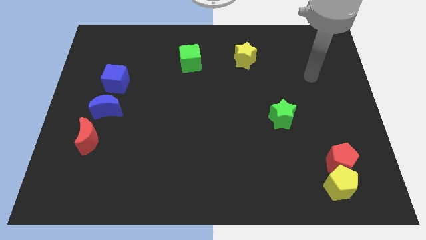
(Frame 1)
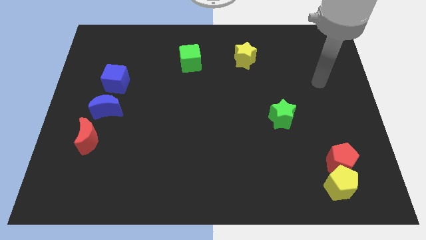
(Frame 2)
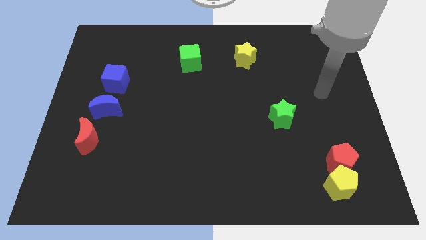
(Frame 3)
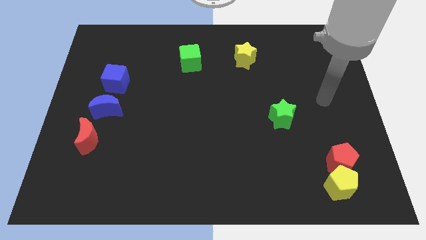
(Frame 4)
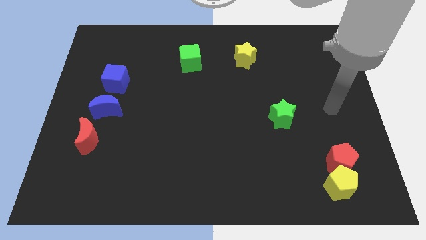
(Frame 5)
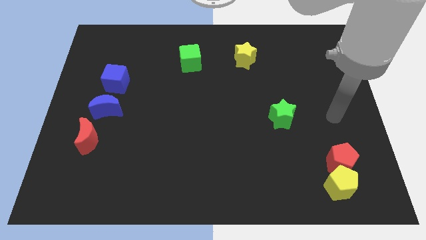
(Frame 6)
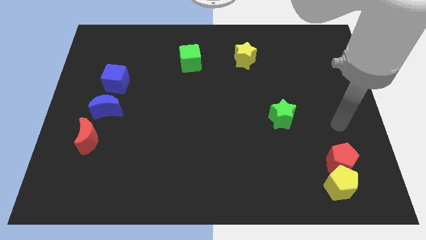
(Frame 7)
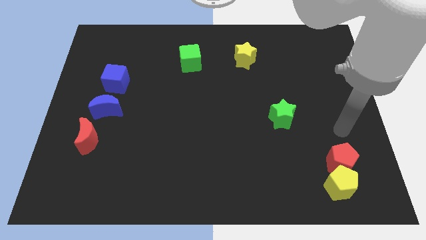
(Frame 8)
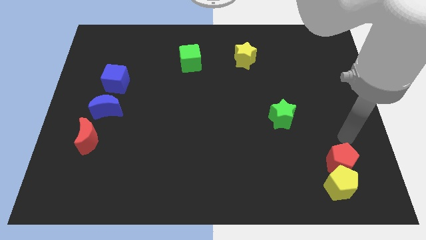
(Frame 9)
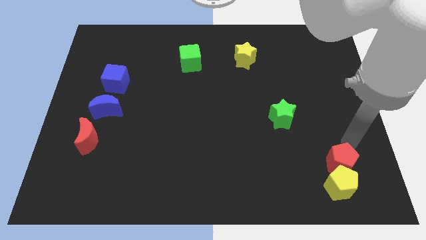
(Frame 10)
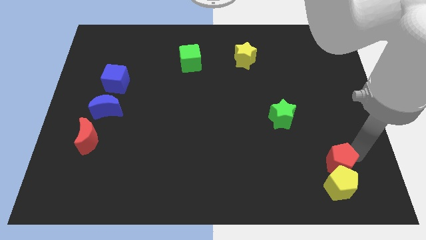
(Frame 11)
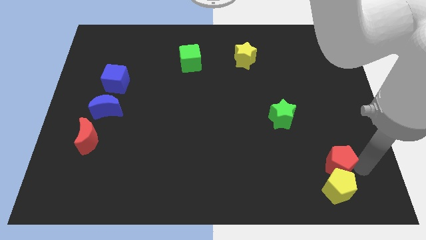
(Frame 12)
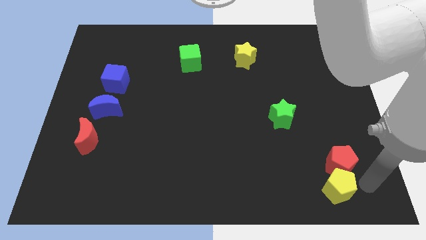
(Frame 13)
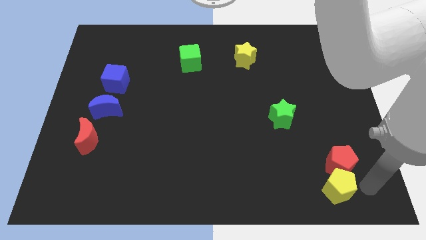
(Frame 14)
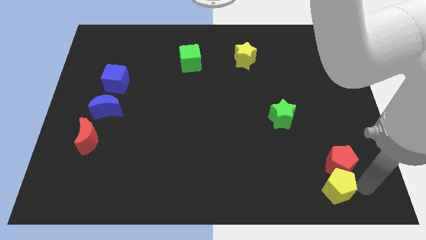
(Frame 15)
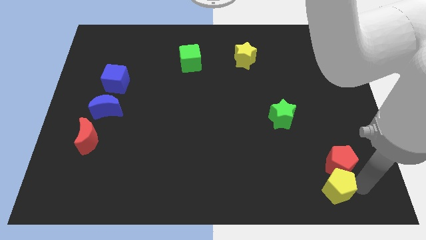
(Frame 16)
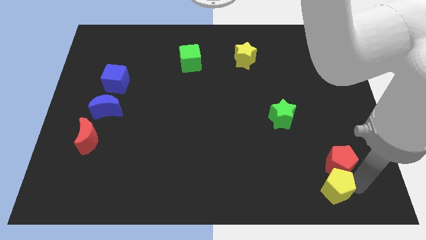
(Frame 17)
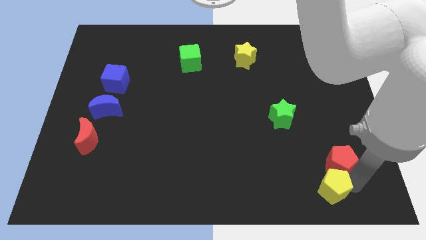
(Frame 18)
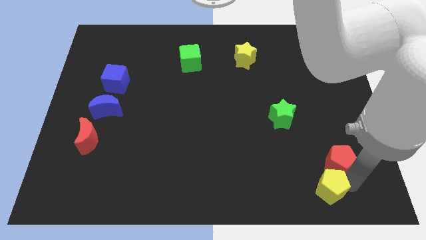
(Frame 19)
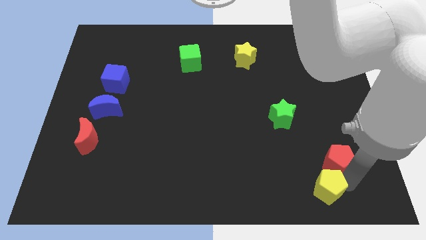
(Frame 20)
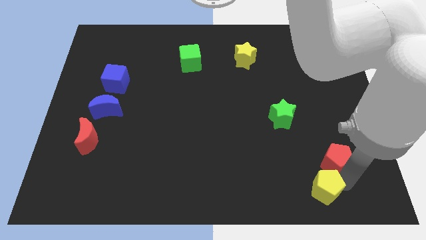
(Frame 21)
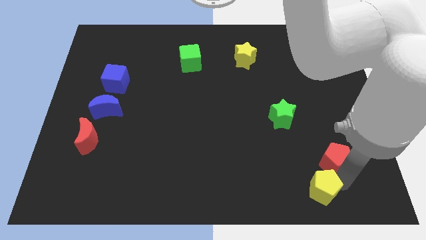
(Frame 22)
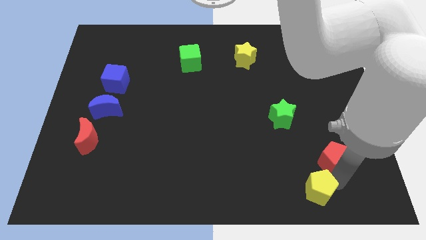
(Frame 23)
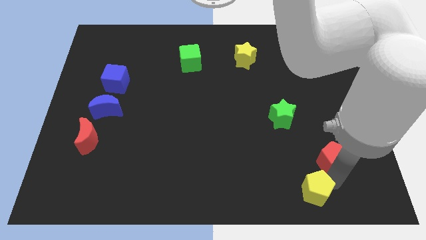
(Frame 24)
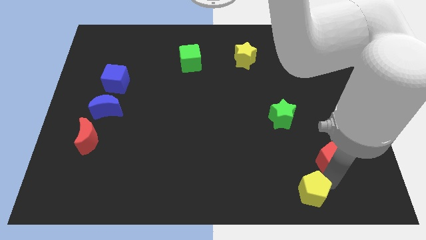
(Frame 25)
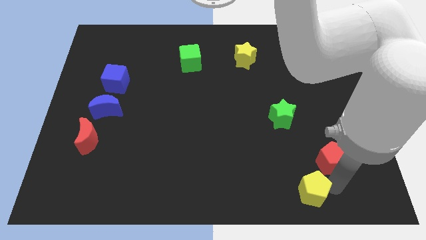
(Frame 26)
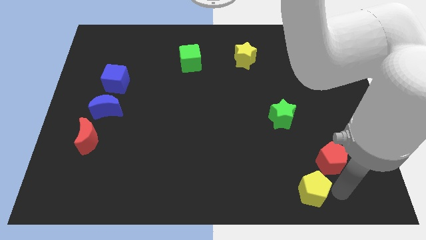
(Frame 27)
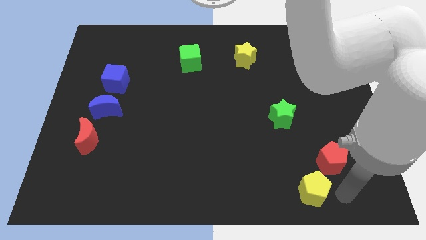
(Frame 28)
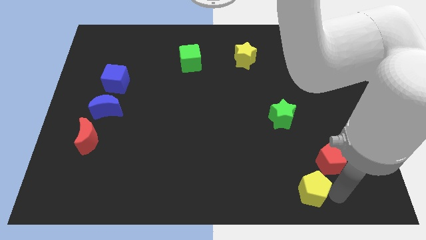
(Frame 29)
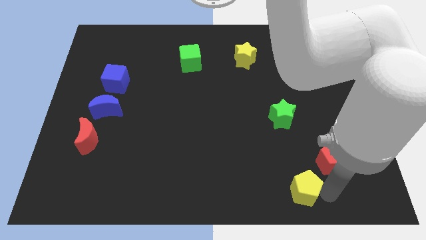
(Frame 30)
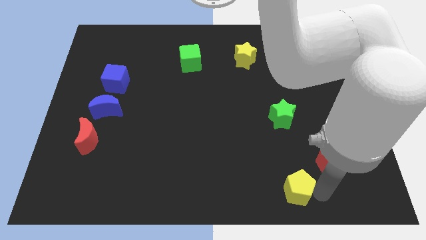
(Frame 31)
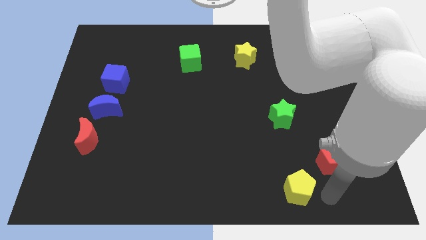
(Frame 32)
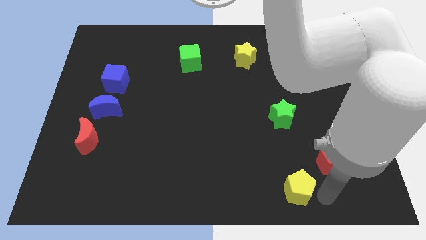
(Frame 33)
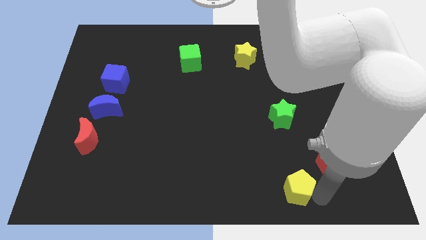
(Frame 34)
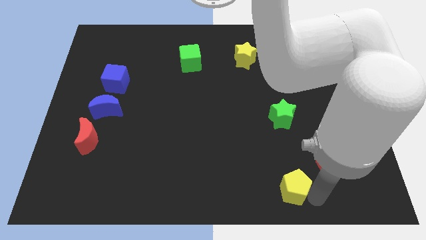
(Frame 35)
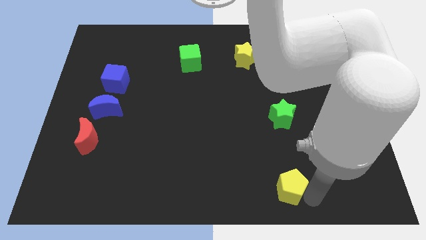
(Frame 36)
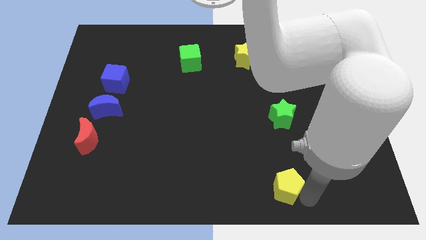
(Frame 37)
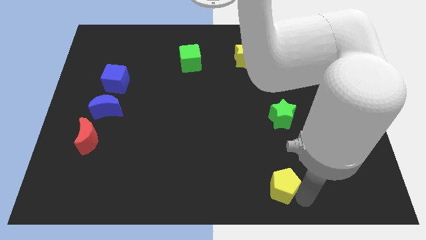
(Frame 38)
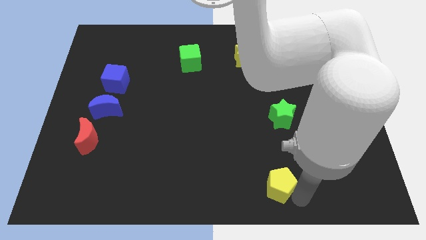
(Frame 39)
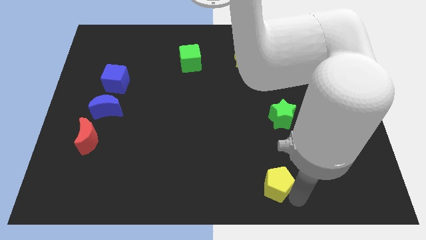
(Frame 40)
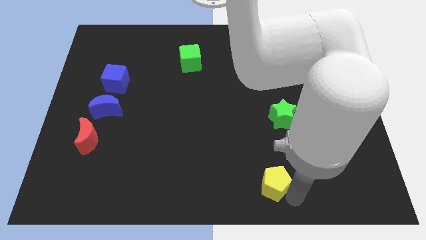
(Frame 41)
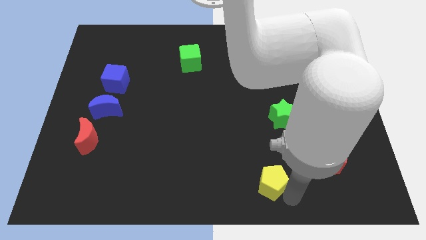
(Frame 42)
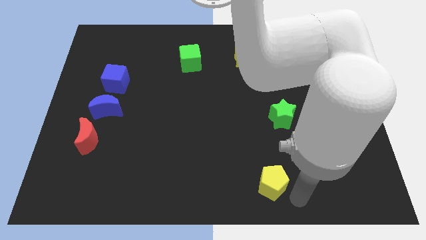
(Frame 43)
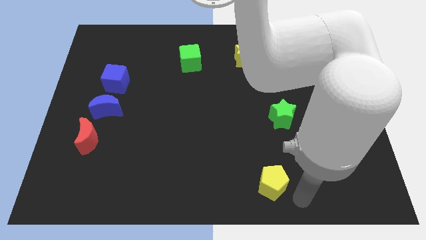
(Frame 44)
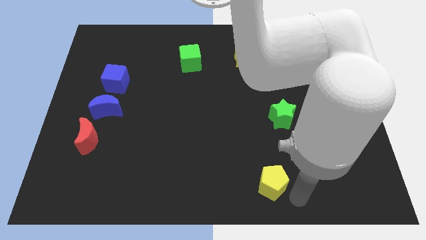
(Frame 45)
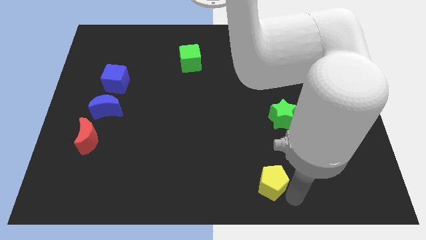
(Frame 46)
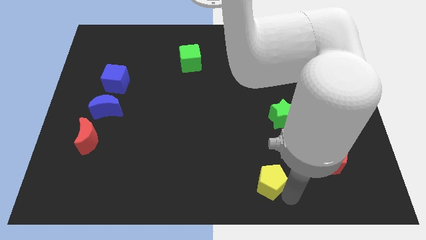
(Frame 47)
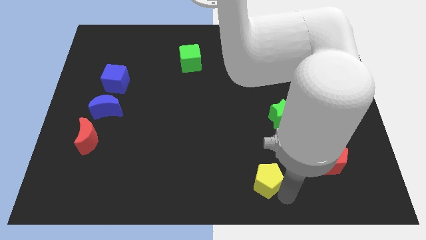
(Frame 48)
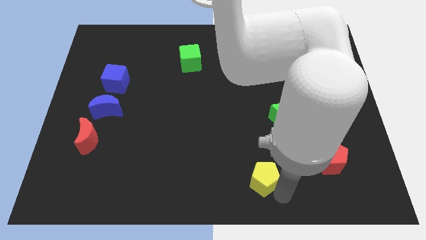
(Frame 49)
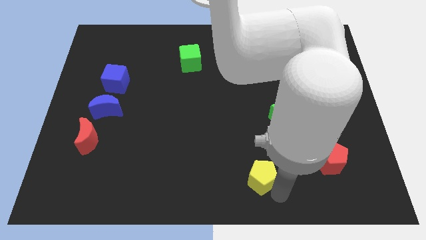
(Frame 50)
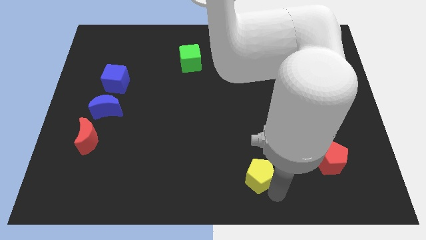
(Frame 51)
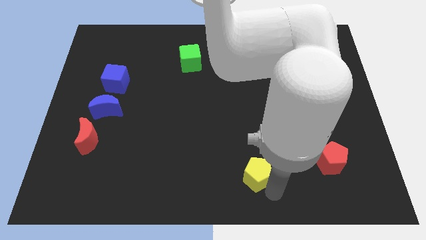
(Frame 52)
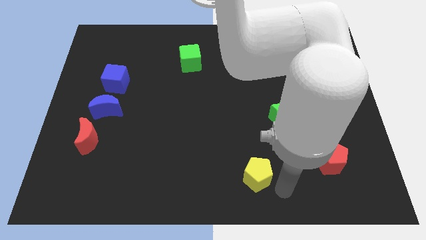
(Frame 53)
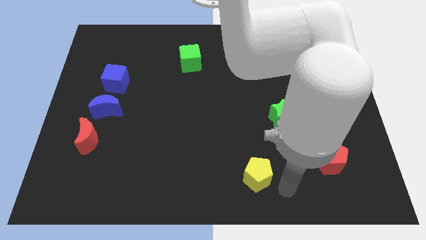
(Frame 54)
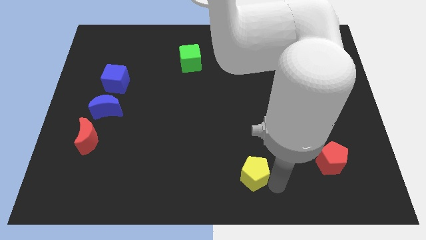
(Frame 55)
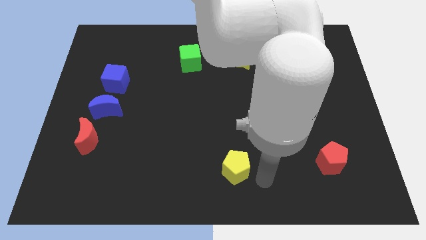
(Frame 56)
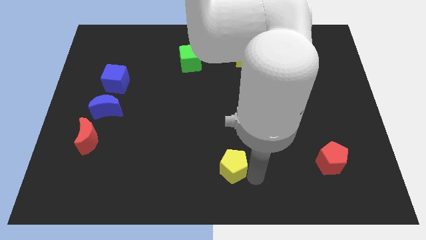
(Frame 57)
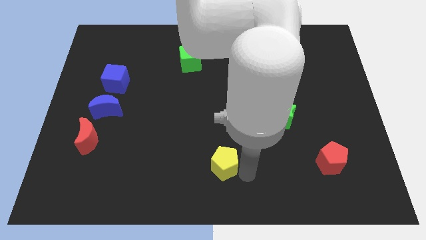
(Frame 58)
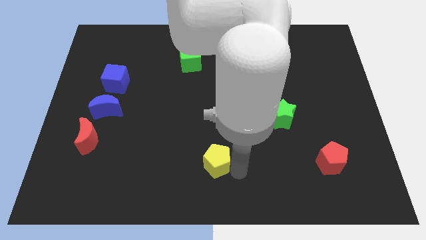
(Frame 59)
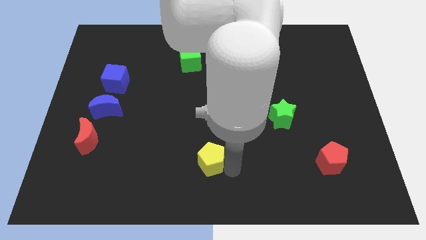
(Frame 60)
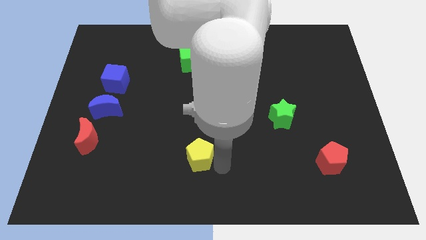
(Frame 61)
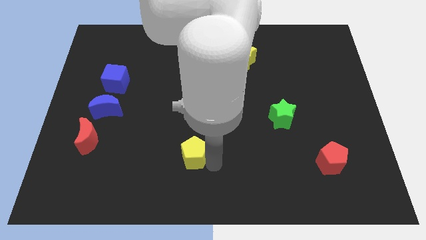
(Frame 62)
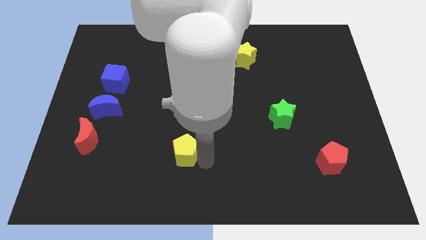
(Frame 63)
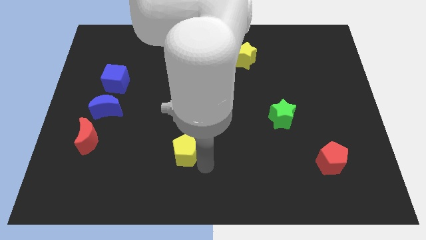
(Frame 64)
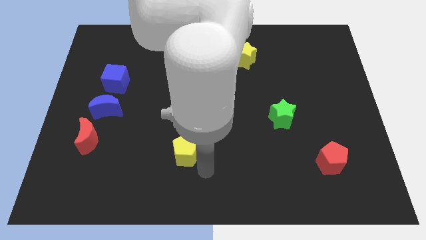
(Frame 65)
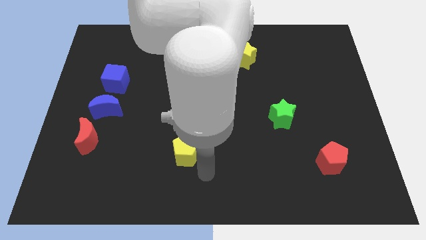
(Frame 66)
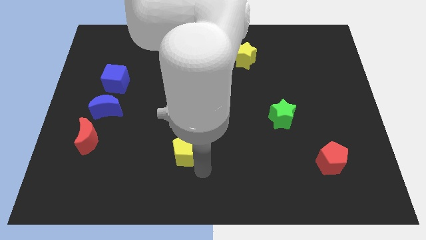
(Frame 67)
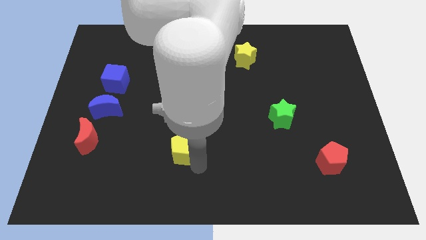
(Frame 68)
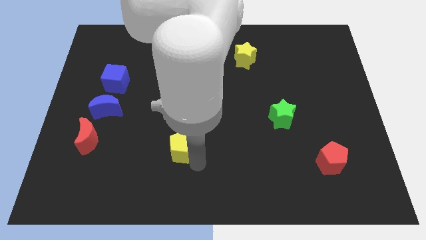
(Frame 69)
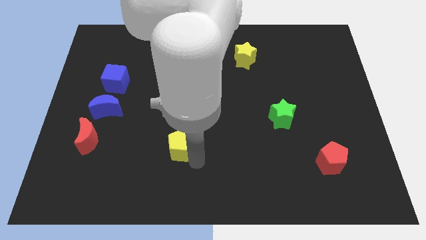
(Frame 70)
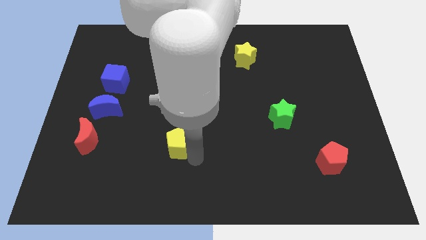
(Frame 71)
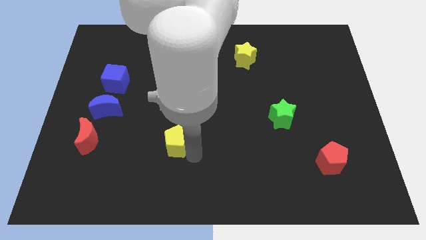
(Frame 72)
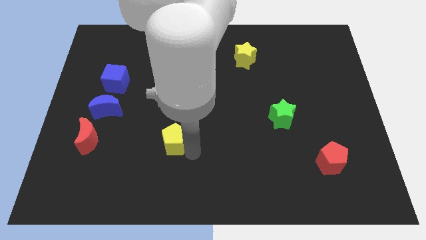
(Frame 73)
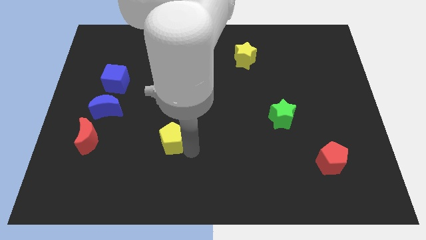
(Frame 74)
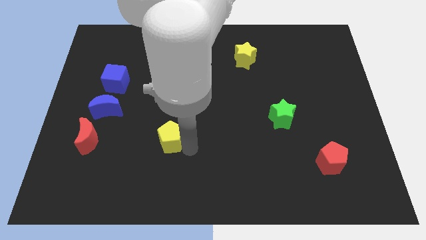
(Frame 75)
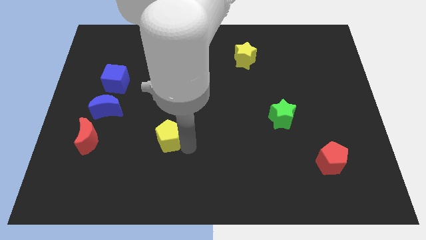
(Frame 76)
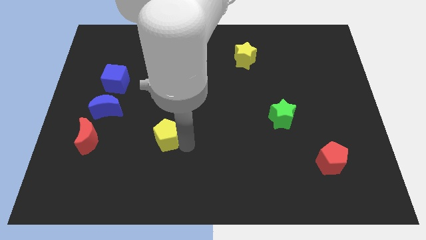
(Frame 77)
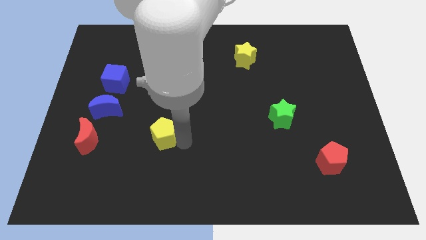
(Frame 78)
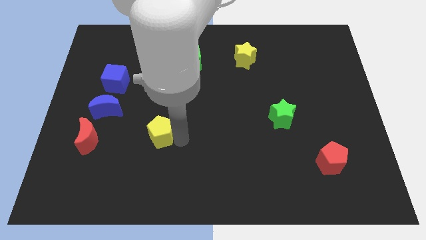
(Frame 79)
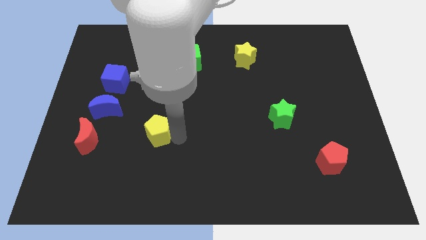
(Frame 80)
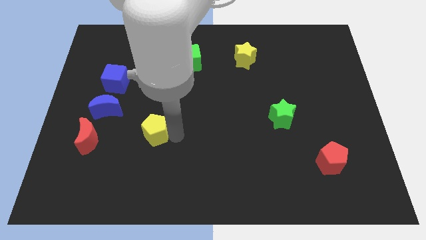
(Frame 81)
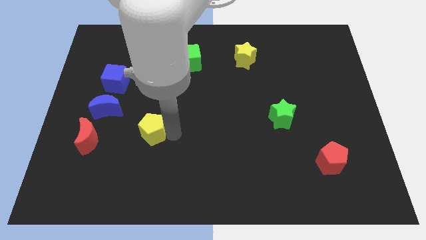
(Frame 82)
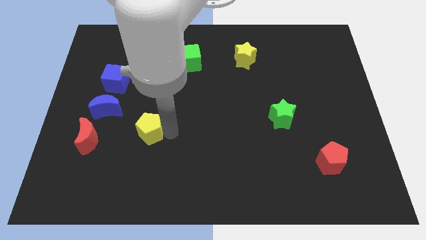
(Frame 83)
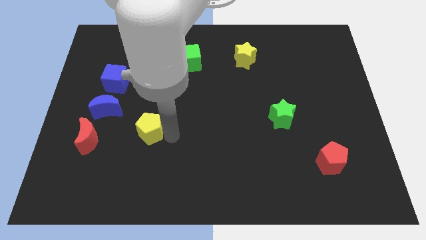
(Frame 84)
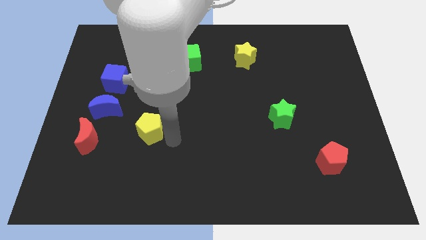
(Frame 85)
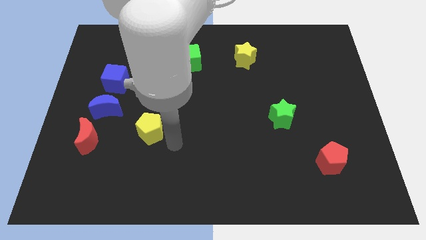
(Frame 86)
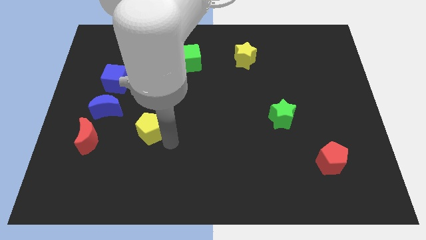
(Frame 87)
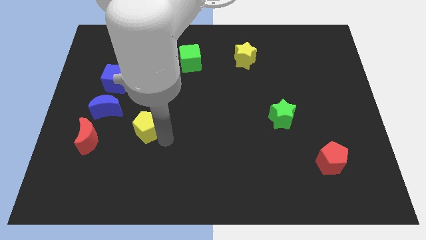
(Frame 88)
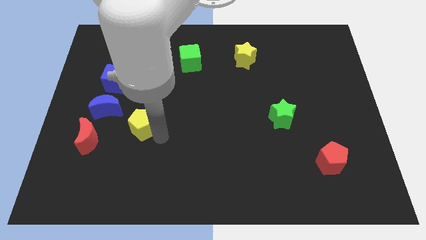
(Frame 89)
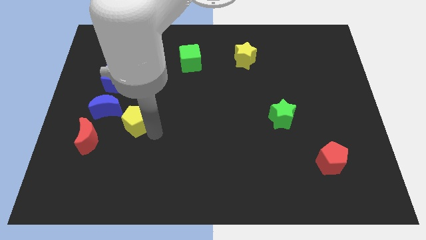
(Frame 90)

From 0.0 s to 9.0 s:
move the yellow pentagon diagonally up and to the right of the red moon
